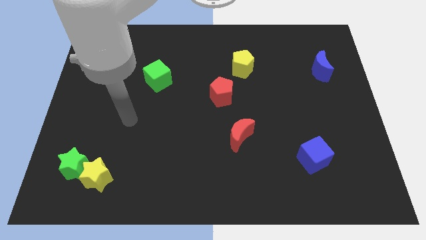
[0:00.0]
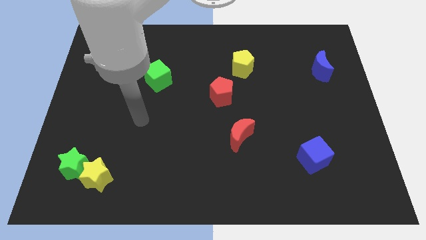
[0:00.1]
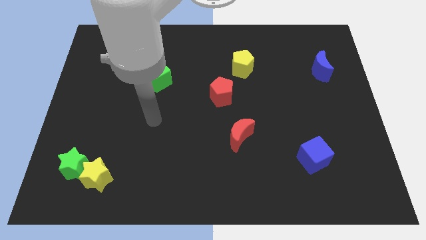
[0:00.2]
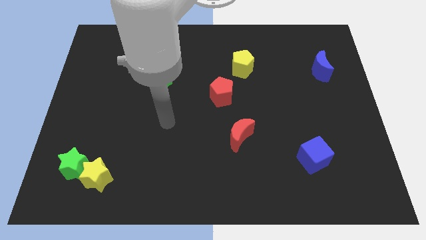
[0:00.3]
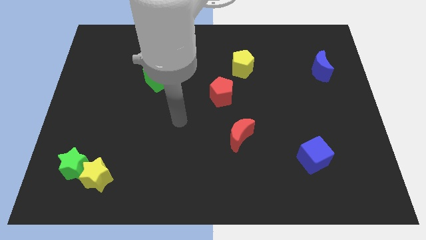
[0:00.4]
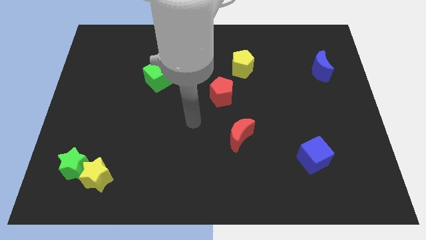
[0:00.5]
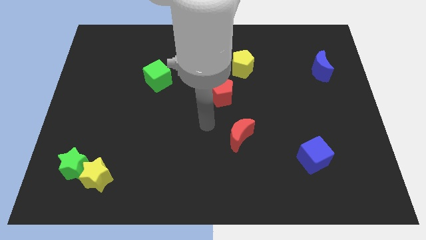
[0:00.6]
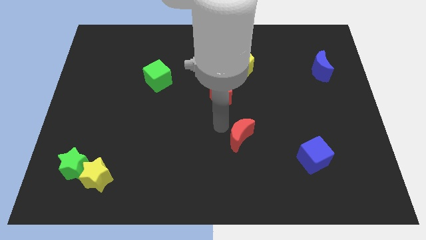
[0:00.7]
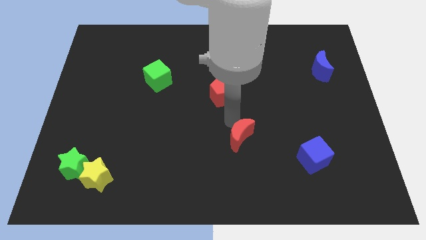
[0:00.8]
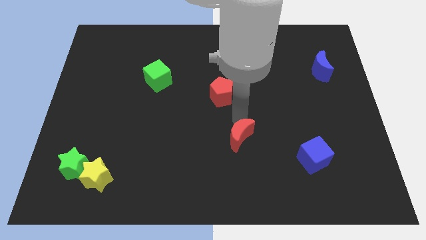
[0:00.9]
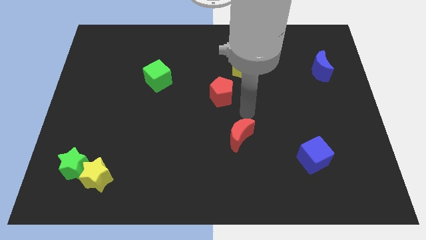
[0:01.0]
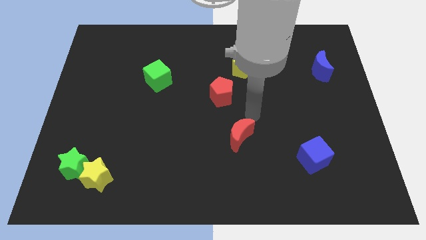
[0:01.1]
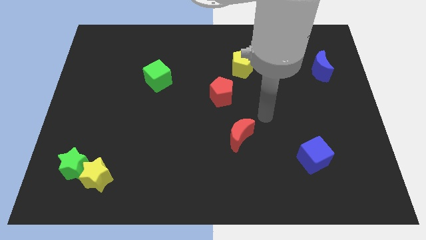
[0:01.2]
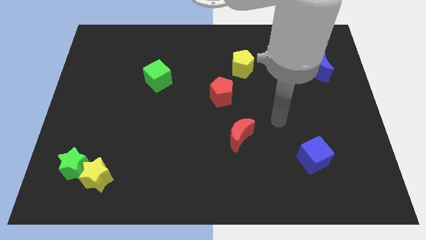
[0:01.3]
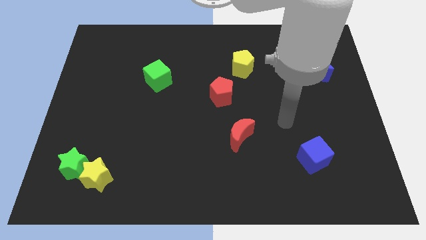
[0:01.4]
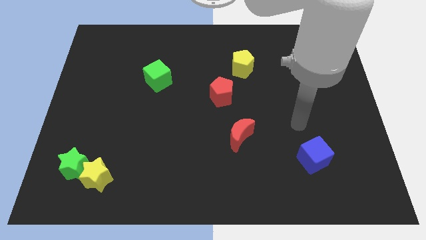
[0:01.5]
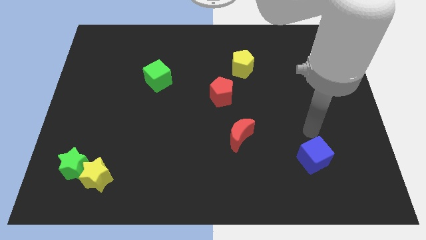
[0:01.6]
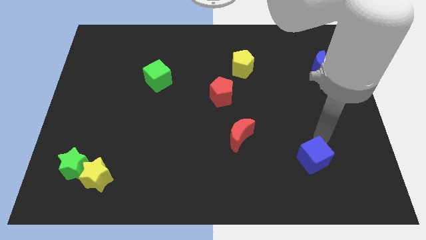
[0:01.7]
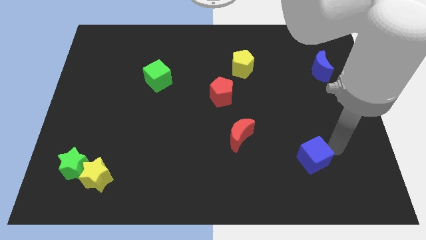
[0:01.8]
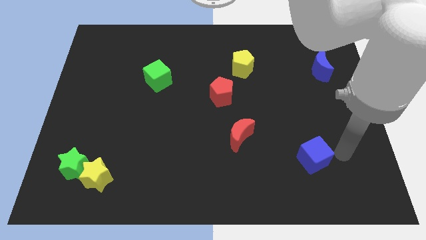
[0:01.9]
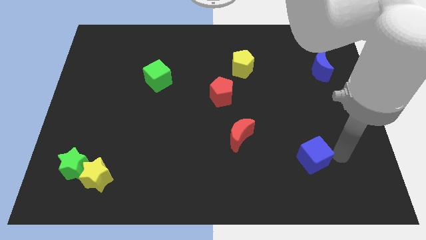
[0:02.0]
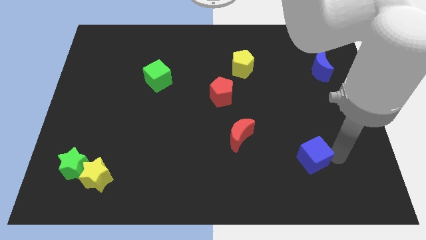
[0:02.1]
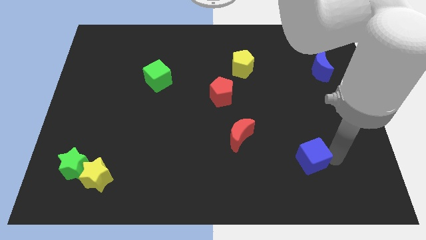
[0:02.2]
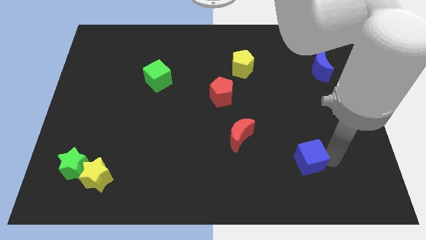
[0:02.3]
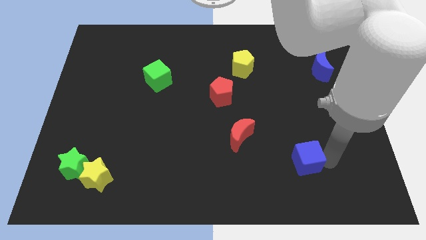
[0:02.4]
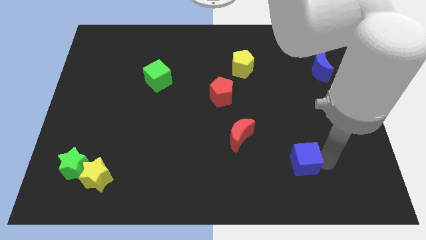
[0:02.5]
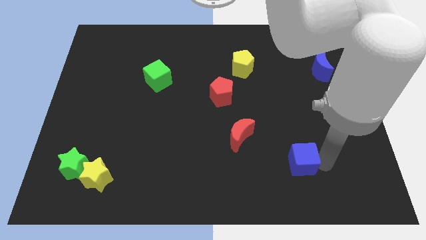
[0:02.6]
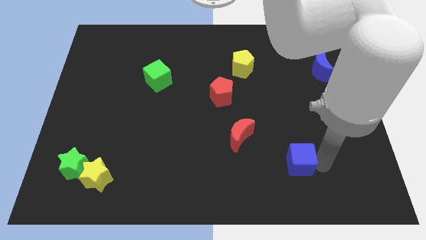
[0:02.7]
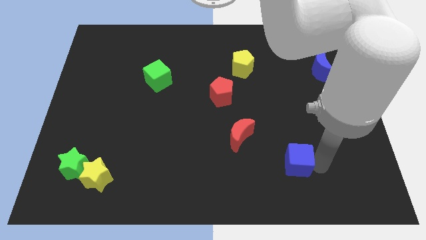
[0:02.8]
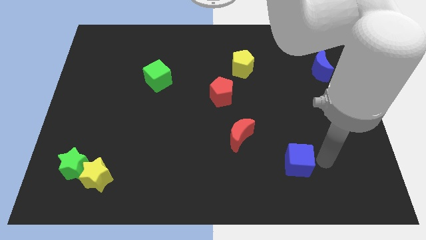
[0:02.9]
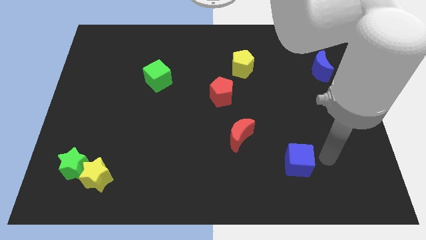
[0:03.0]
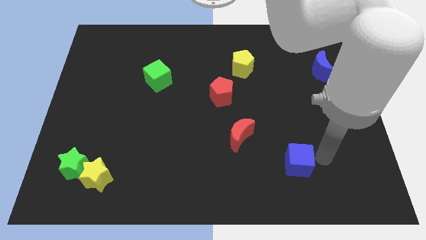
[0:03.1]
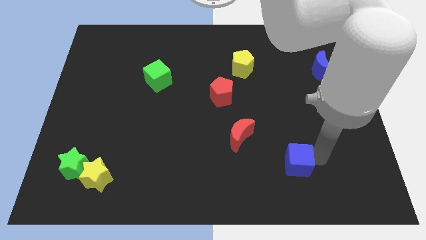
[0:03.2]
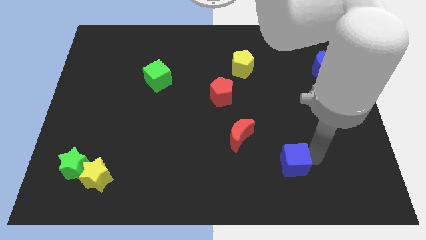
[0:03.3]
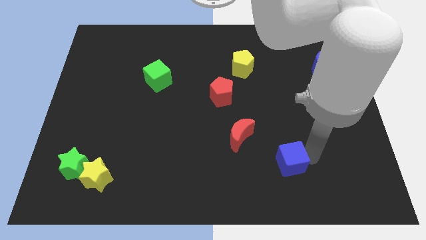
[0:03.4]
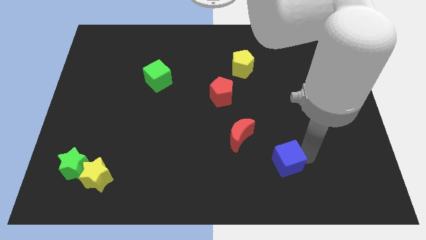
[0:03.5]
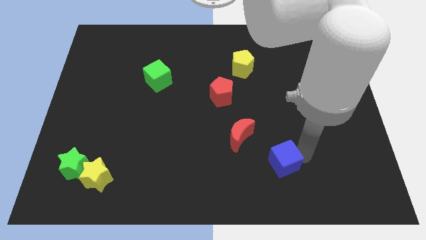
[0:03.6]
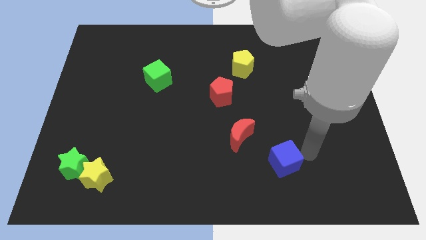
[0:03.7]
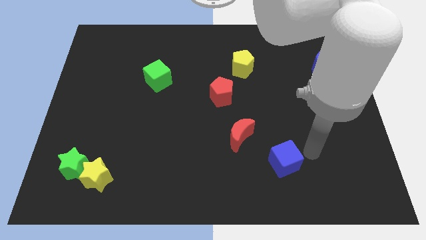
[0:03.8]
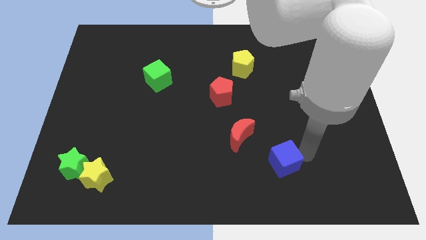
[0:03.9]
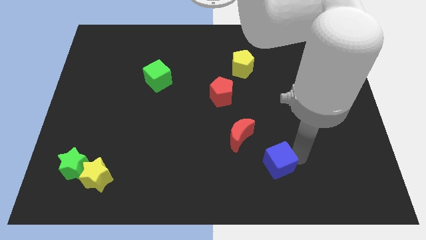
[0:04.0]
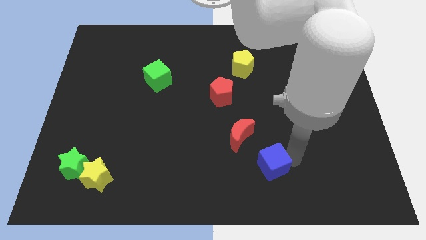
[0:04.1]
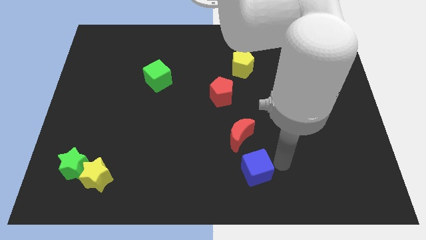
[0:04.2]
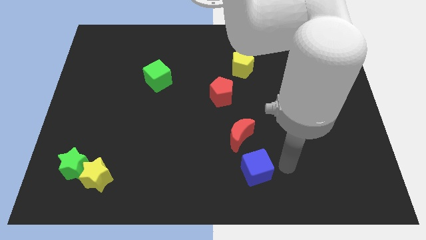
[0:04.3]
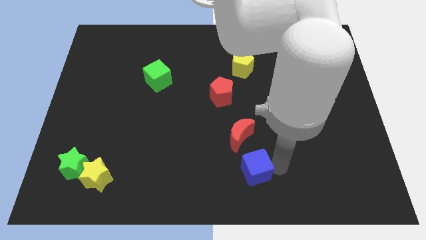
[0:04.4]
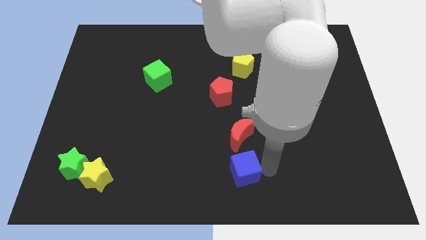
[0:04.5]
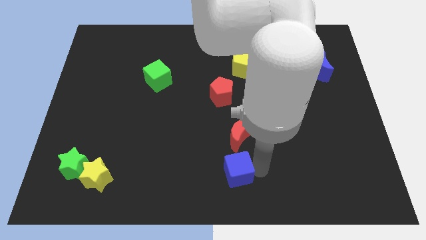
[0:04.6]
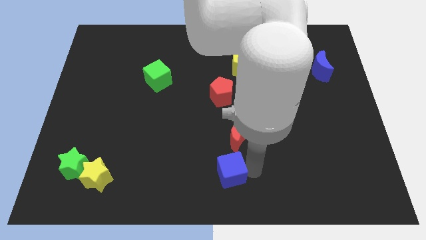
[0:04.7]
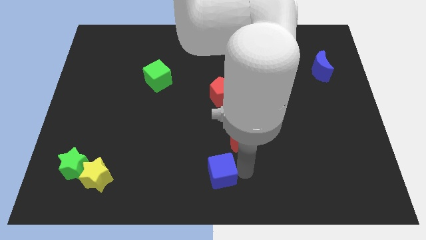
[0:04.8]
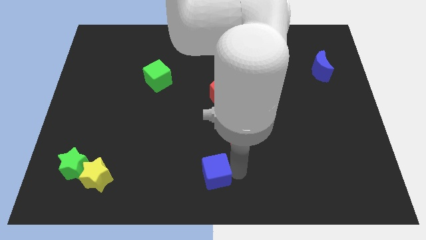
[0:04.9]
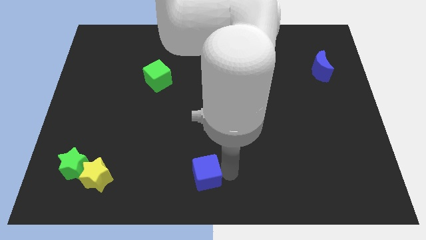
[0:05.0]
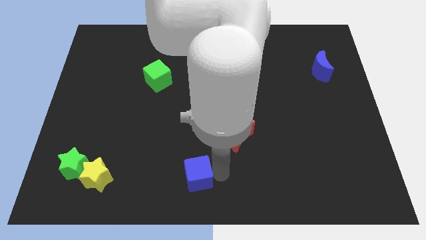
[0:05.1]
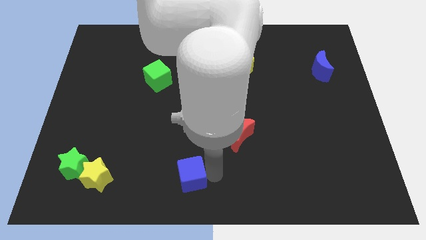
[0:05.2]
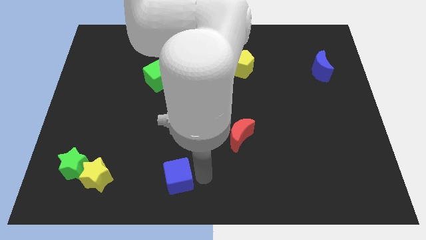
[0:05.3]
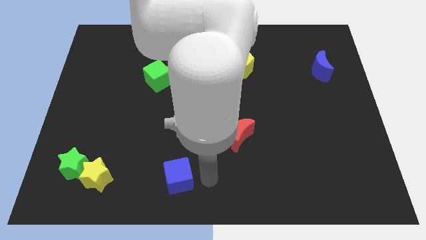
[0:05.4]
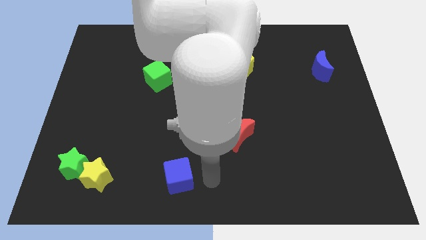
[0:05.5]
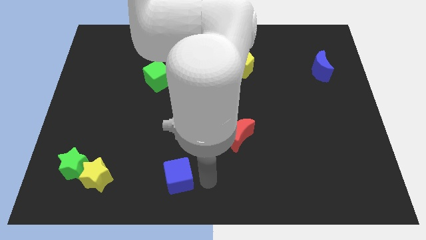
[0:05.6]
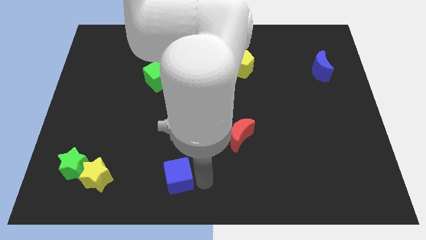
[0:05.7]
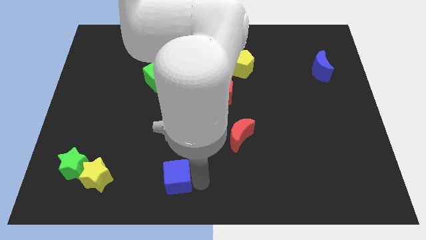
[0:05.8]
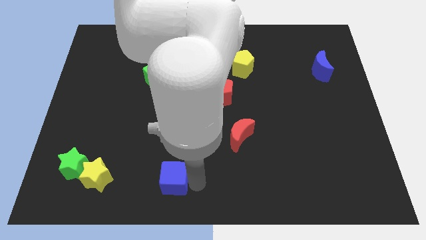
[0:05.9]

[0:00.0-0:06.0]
move the blue cube right of the yellow star

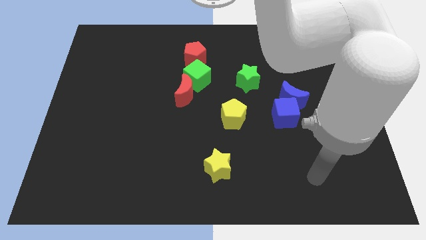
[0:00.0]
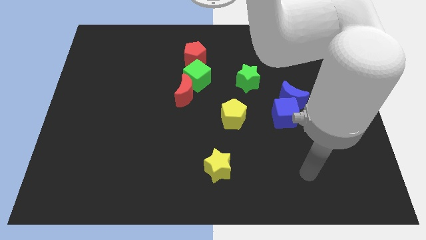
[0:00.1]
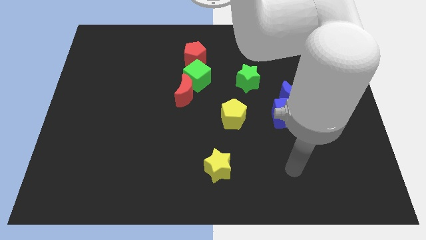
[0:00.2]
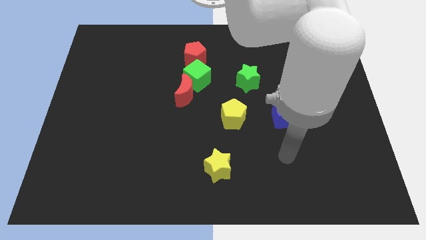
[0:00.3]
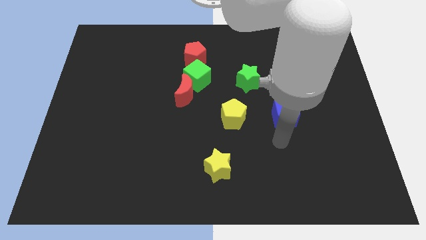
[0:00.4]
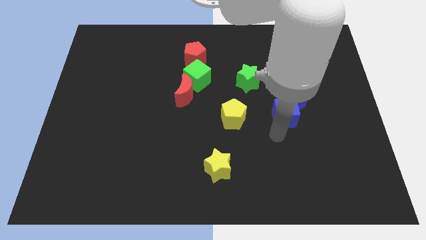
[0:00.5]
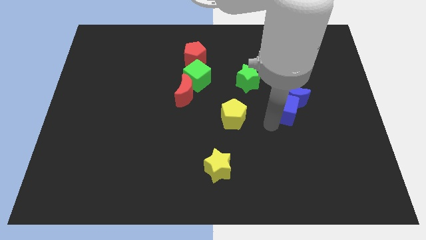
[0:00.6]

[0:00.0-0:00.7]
push the green star to the top left of the blue cube
